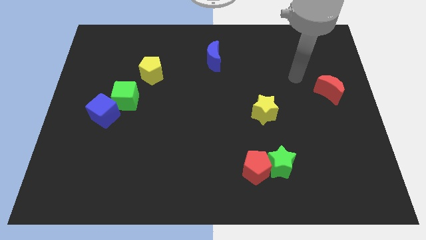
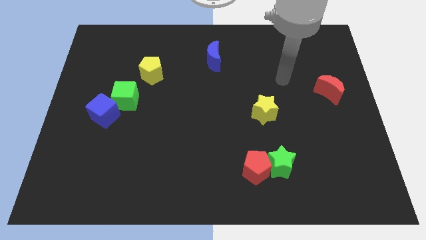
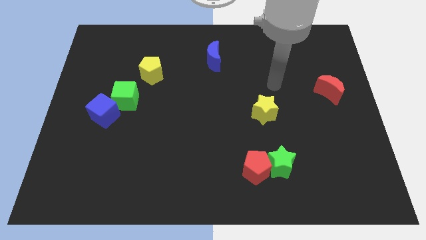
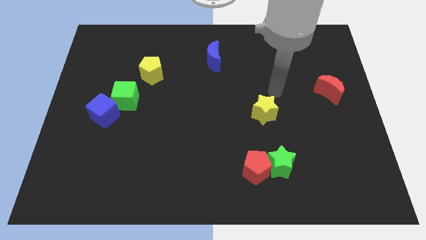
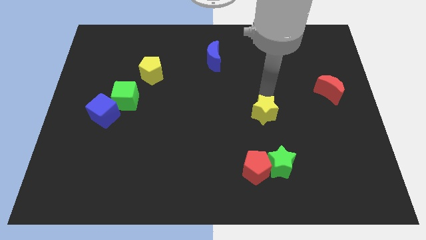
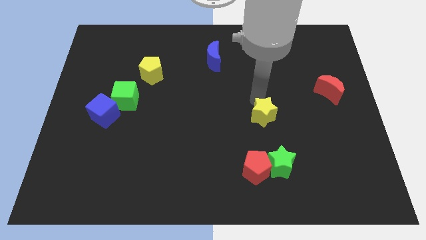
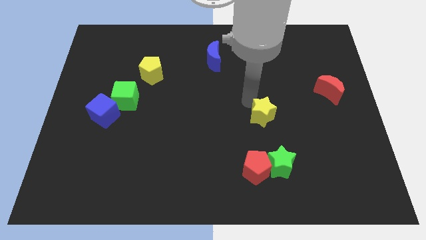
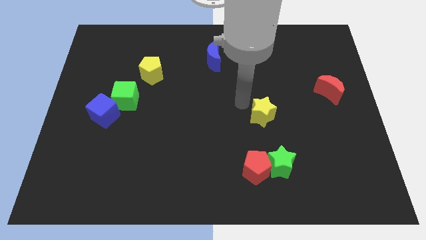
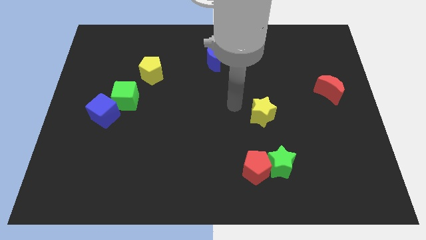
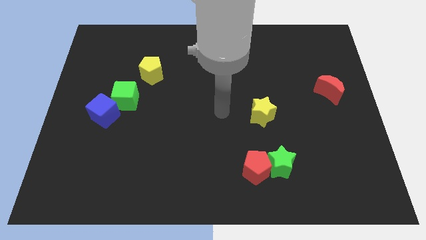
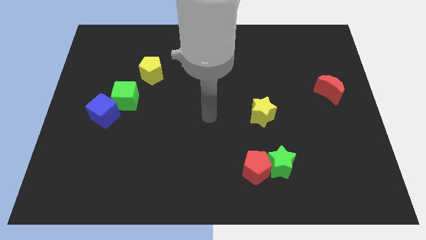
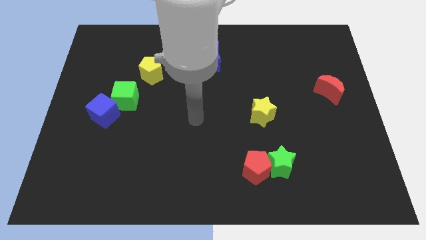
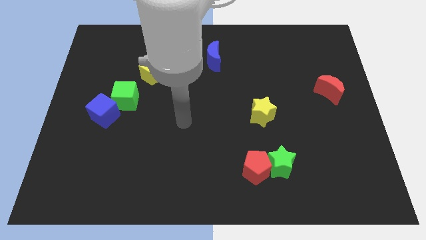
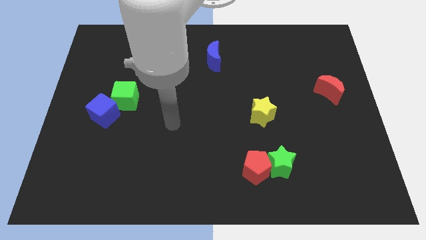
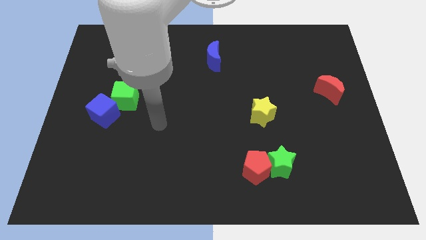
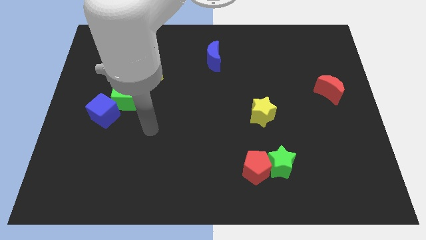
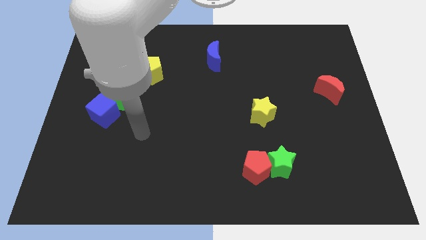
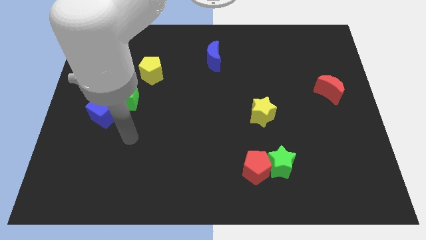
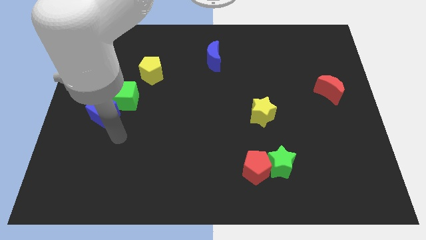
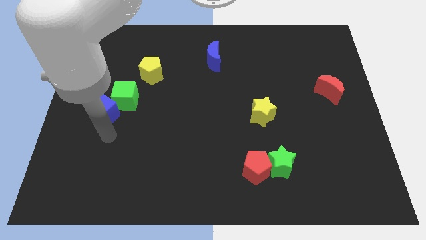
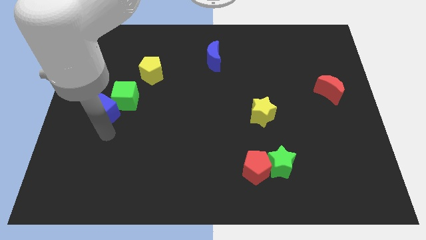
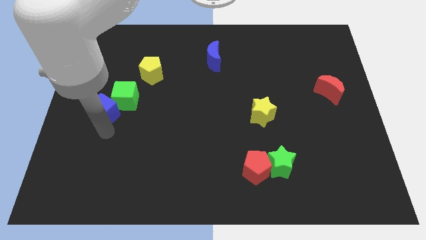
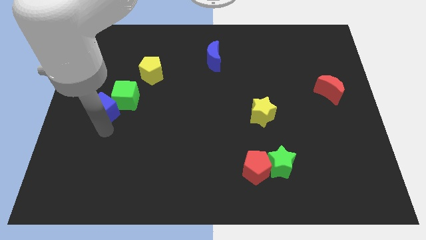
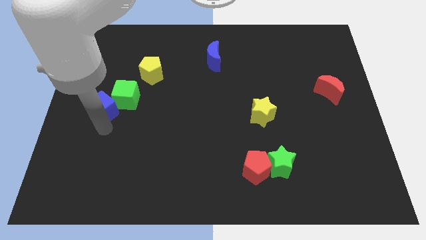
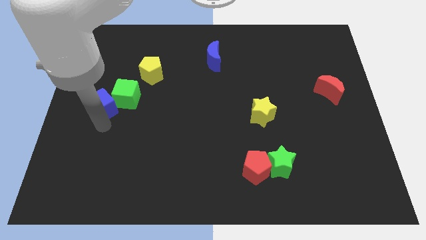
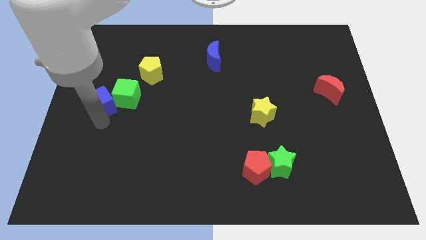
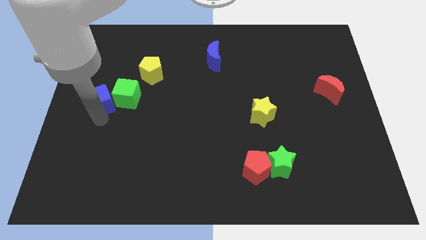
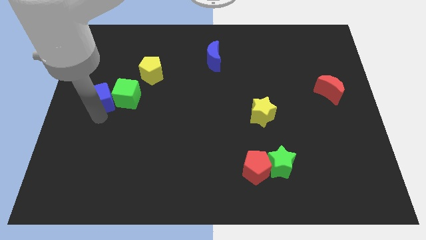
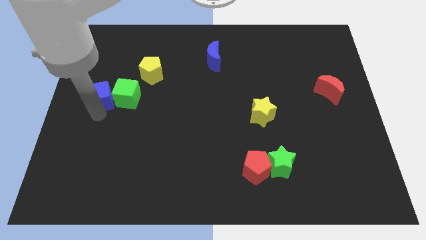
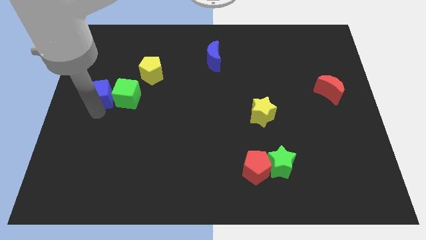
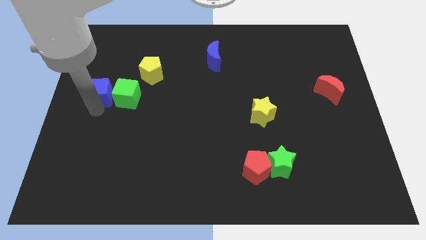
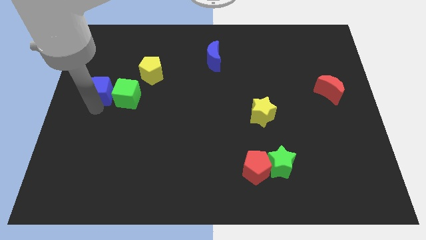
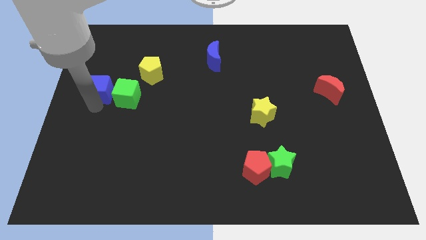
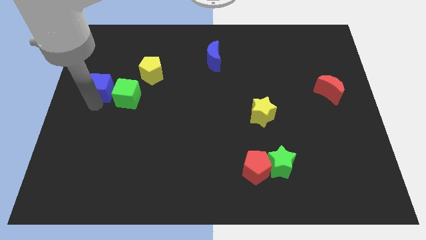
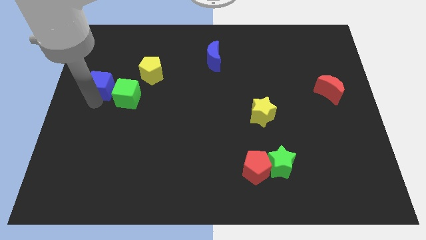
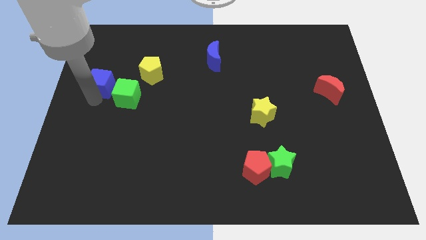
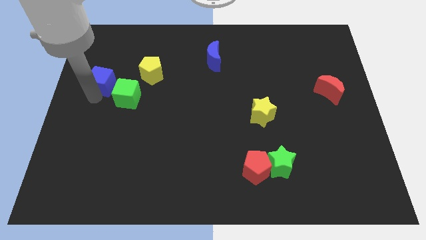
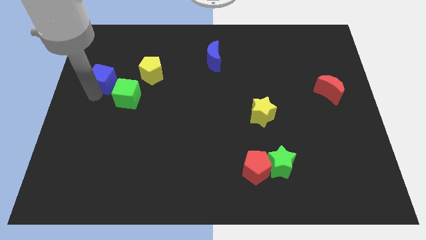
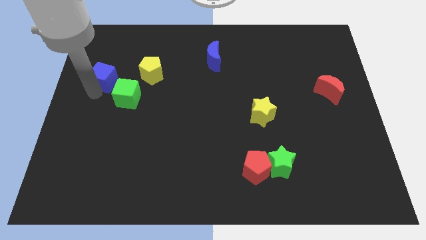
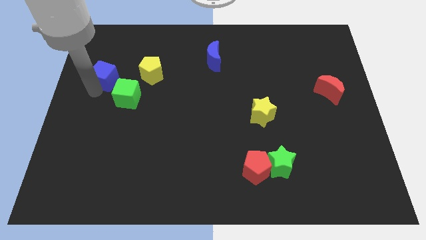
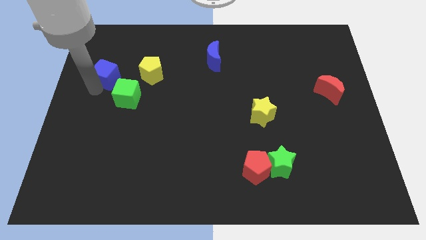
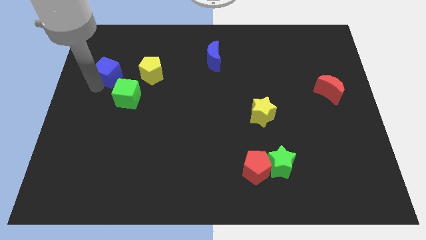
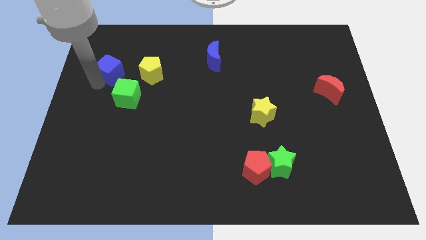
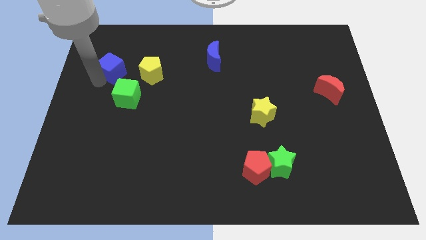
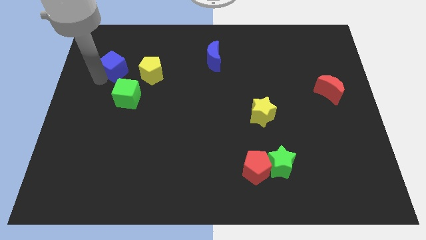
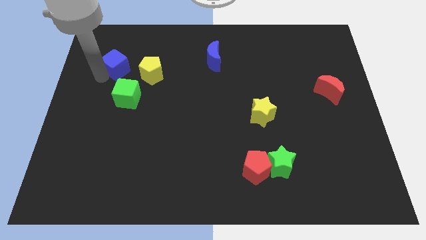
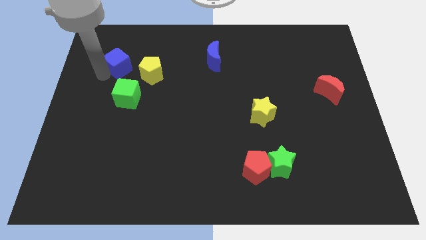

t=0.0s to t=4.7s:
put the blue cube to the top left side of the yellow pentagon

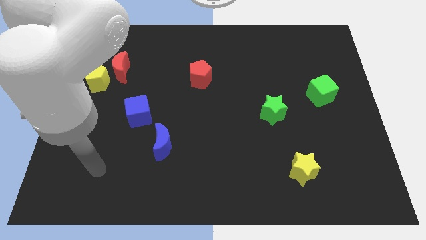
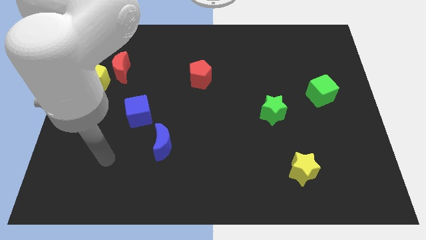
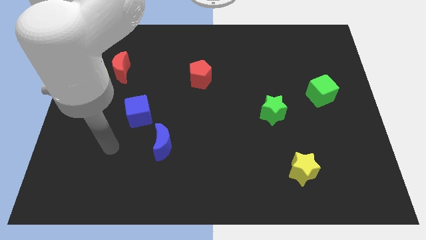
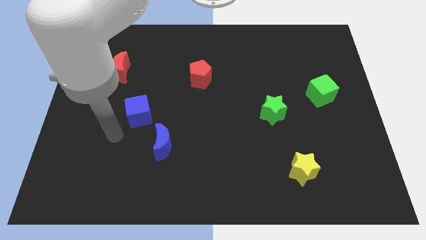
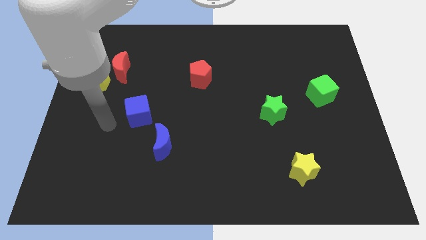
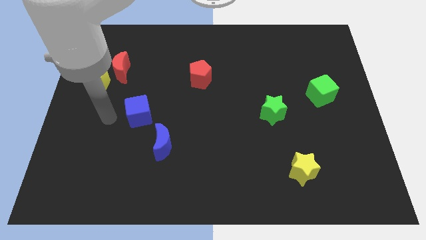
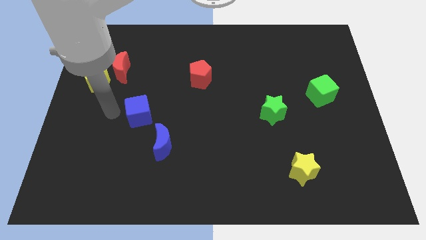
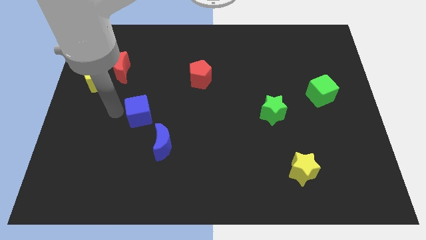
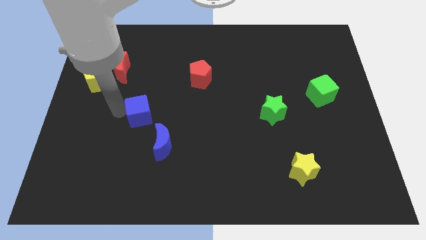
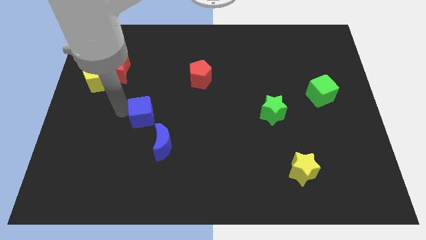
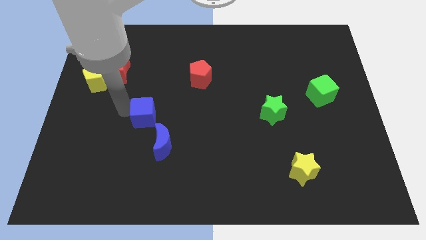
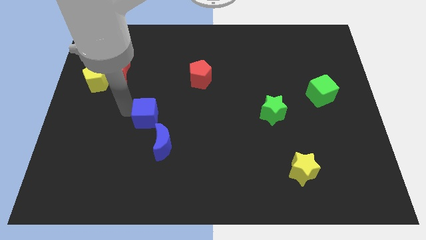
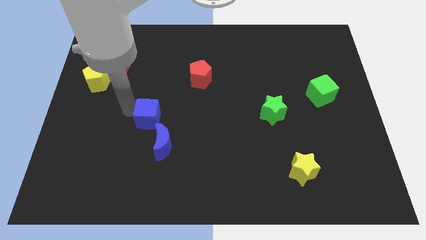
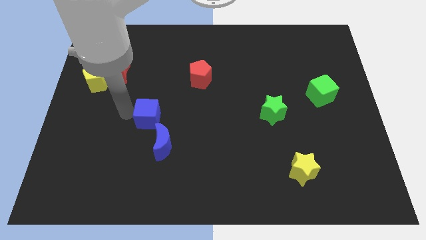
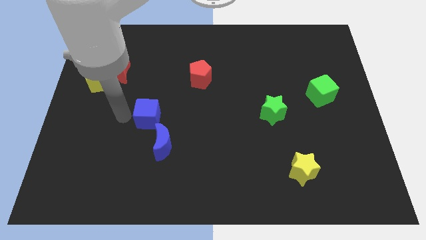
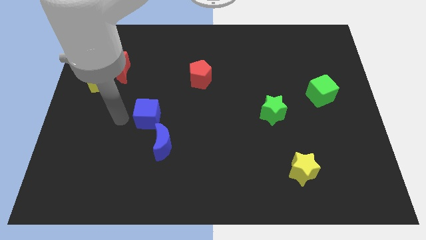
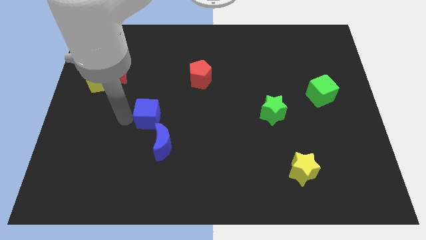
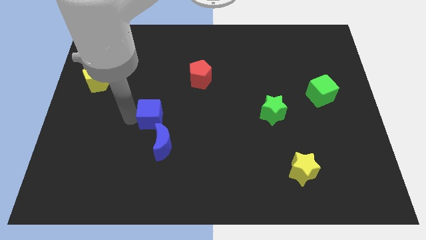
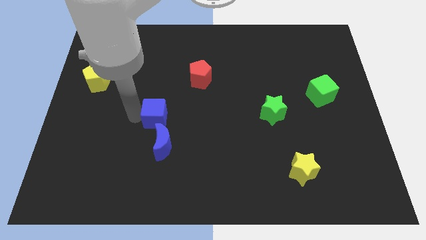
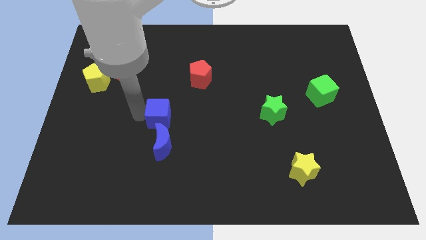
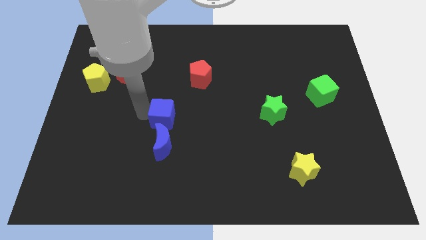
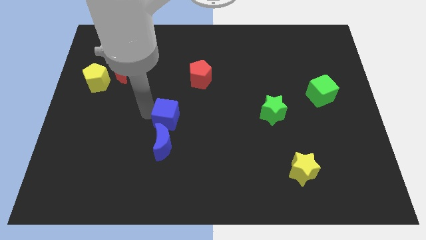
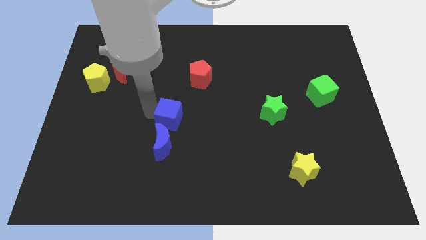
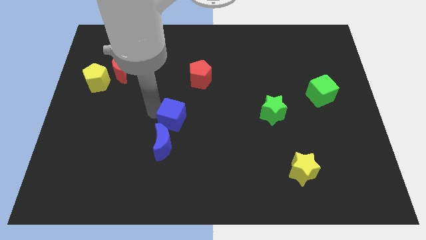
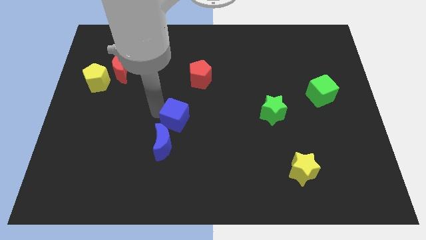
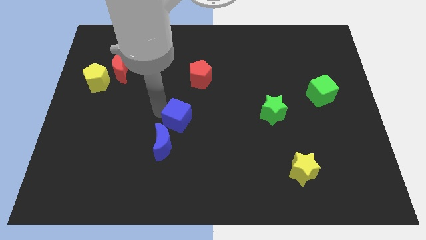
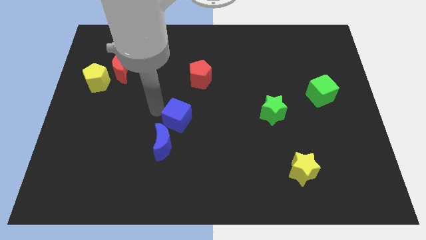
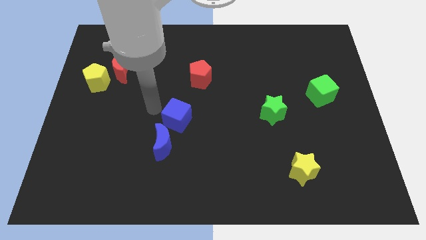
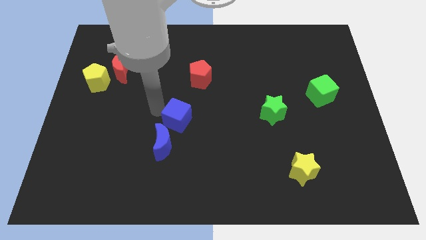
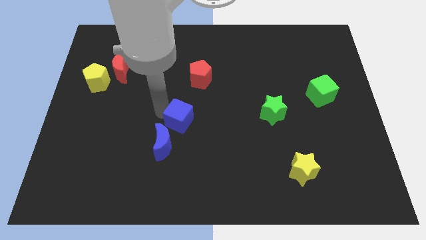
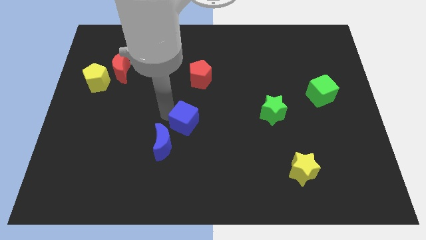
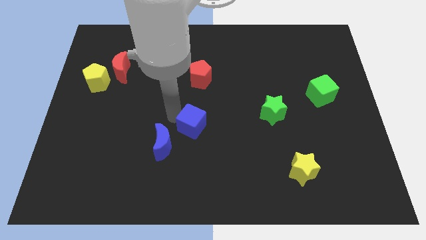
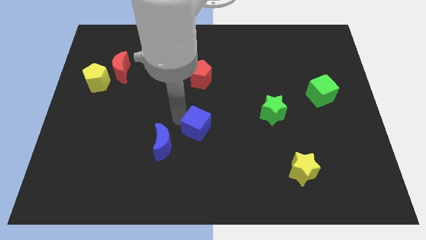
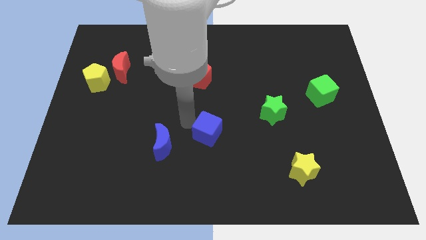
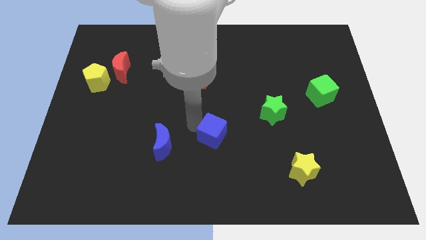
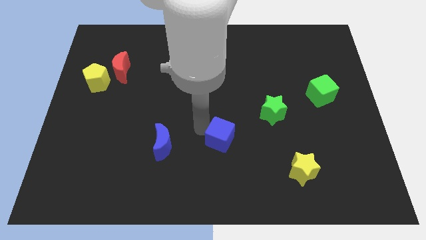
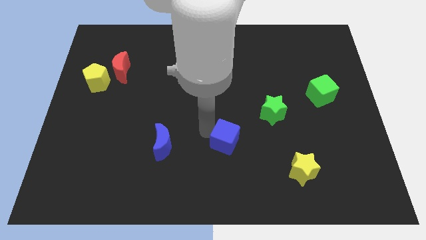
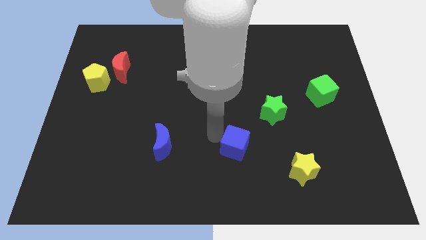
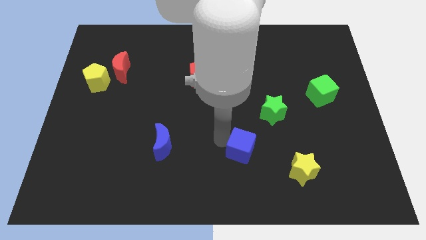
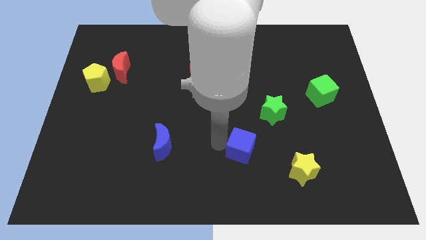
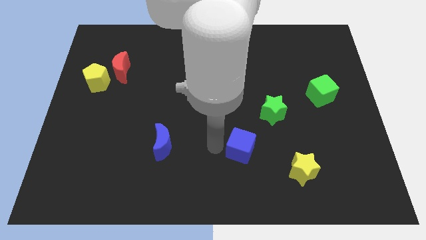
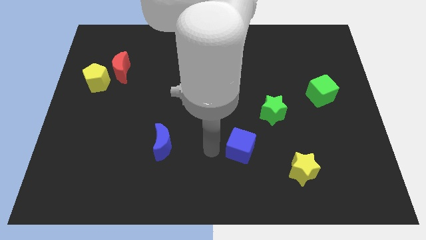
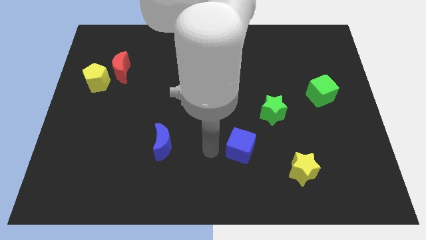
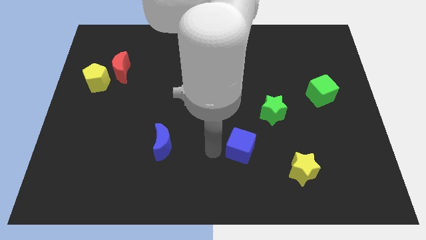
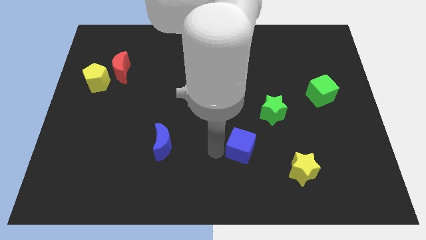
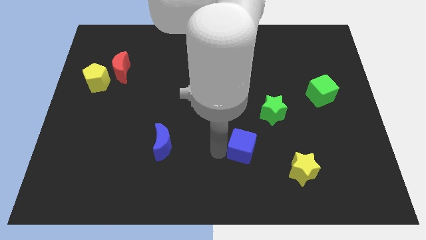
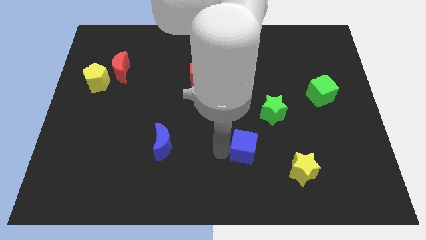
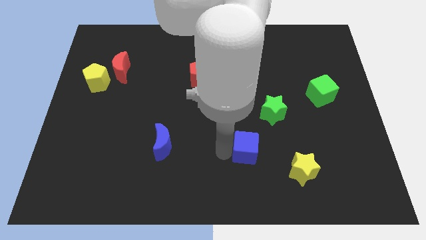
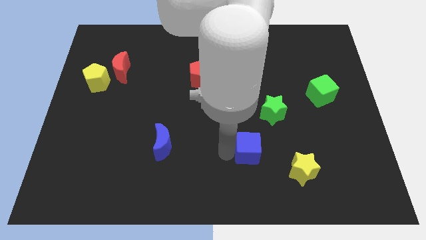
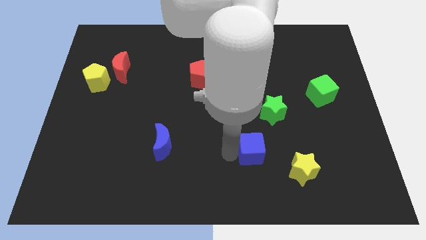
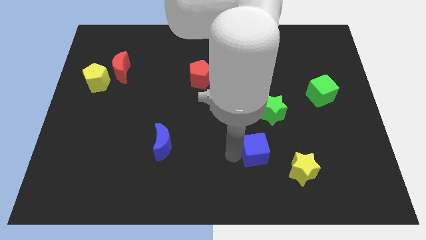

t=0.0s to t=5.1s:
put the blue cube to the bottom side of the green star
